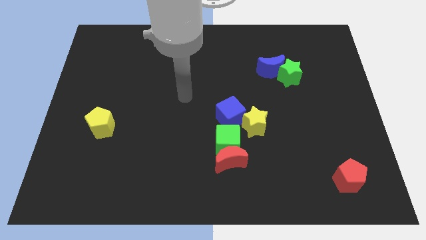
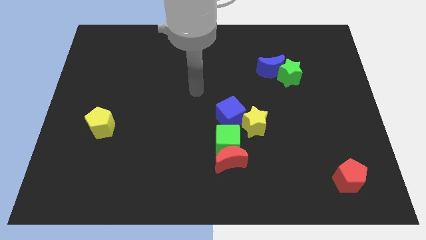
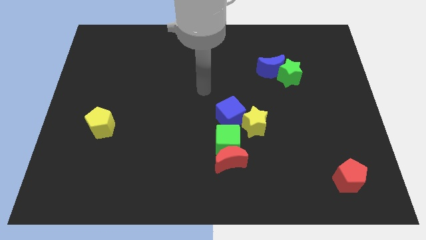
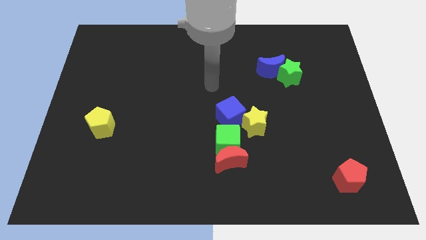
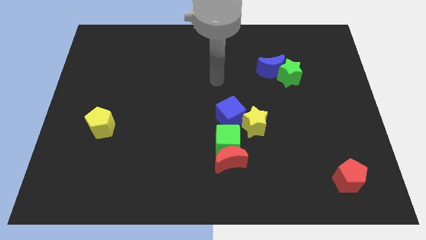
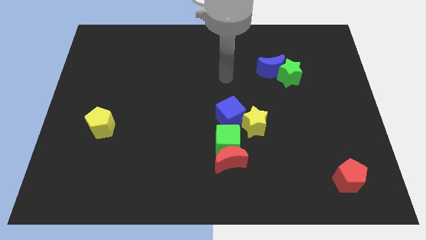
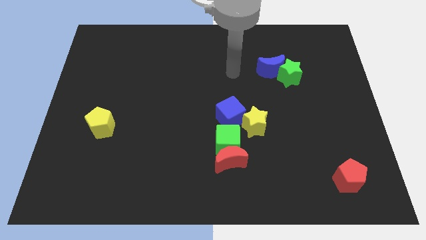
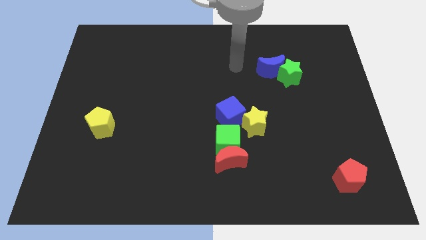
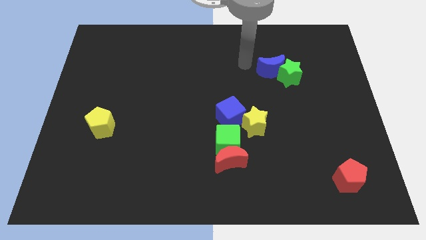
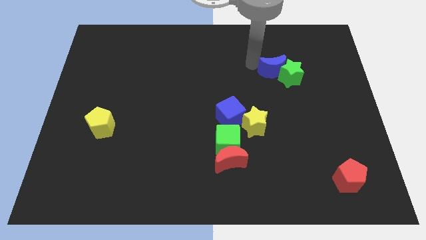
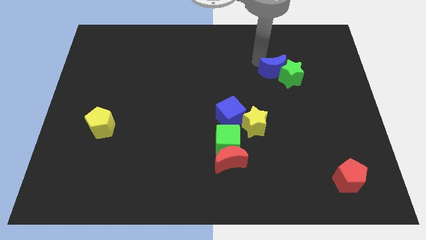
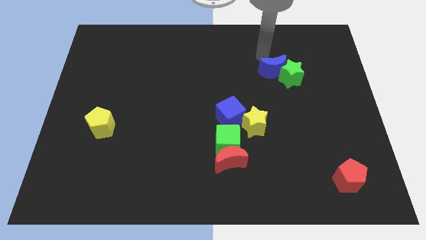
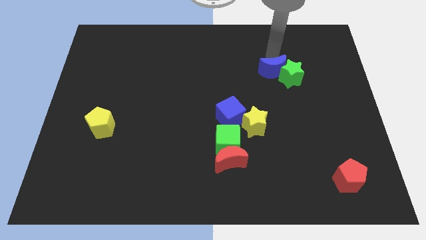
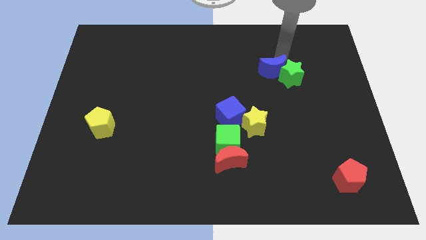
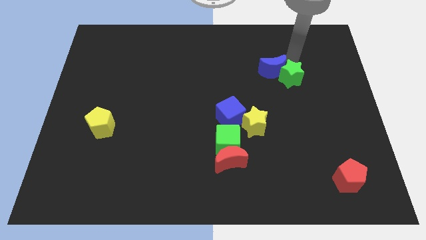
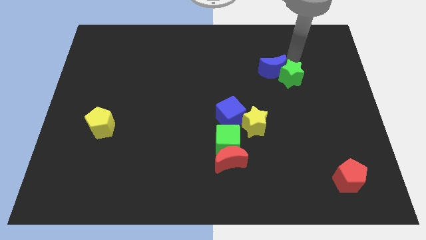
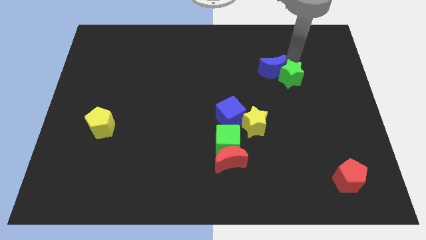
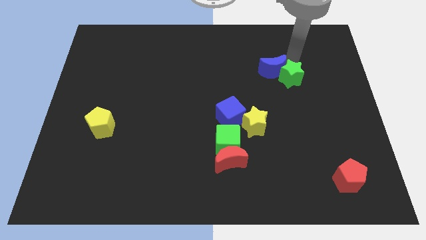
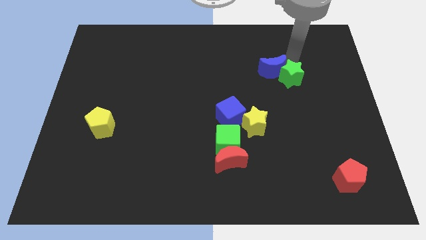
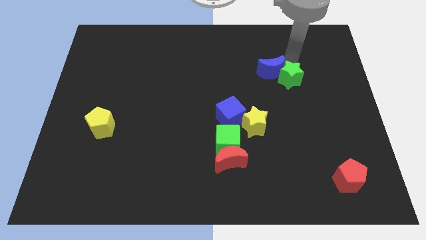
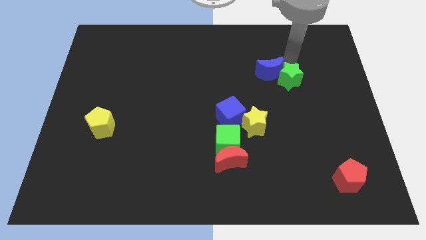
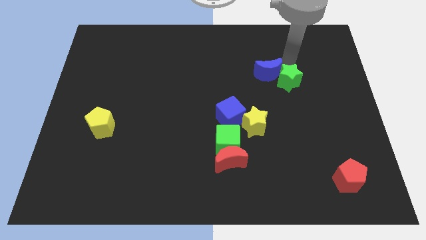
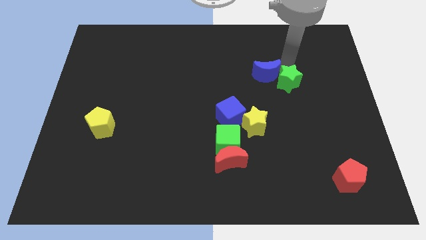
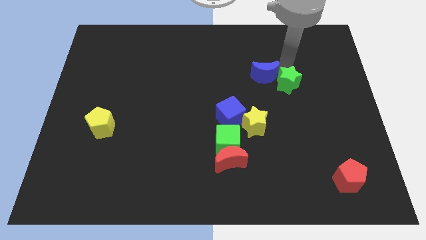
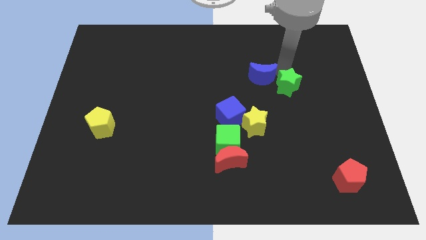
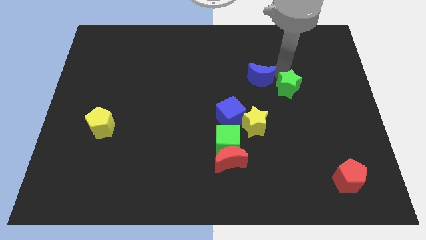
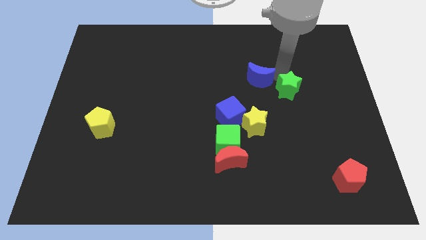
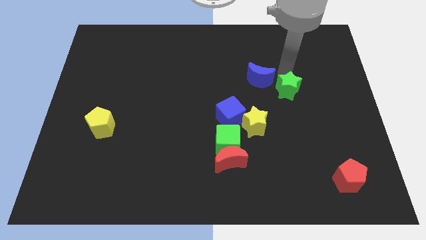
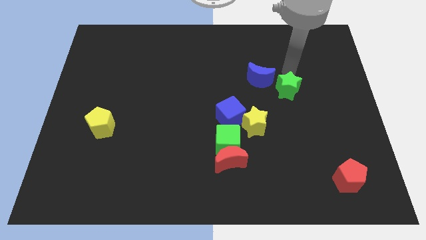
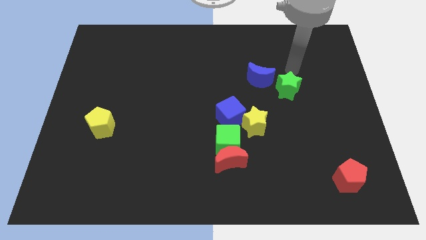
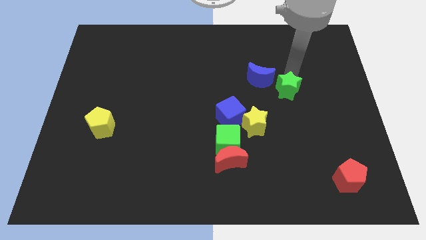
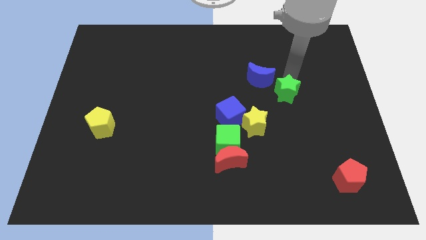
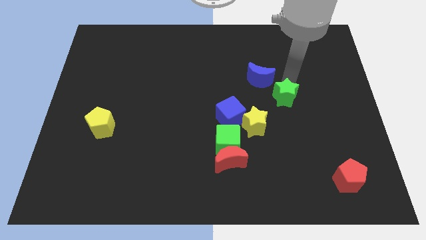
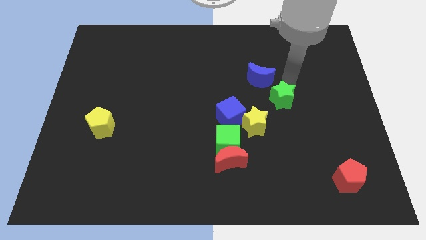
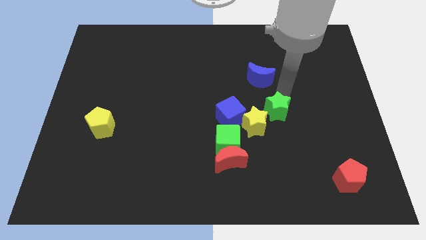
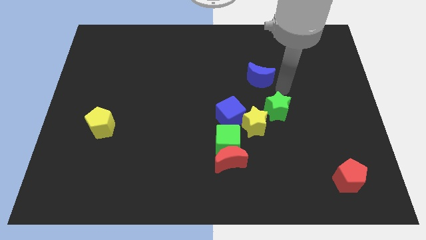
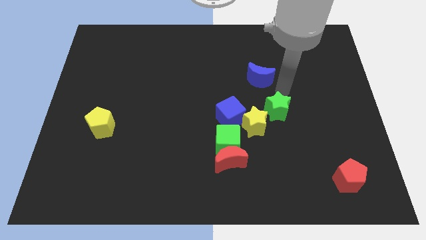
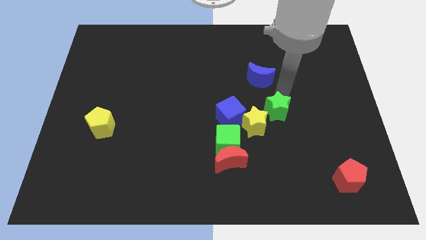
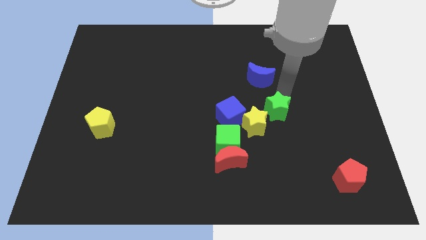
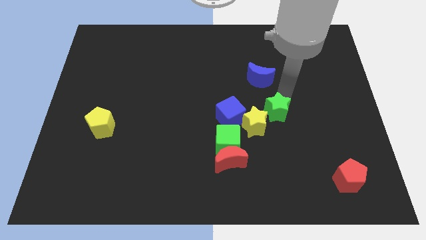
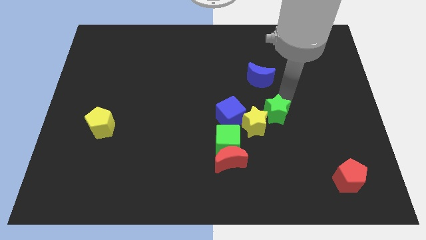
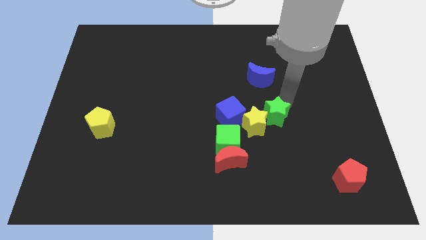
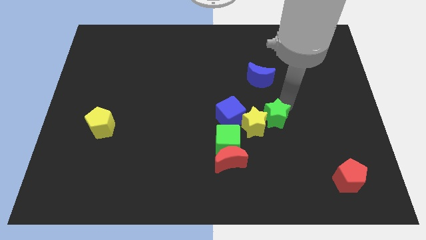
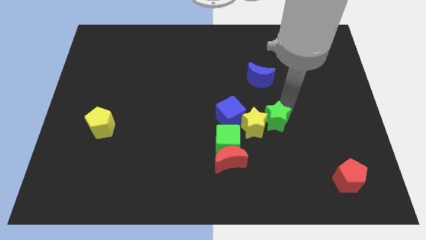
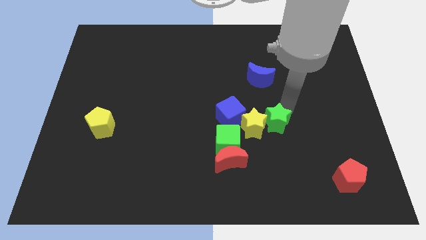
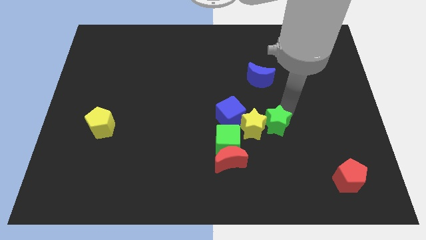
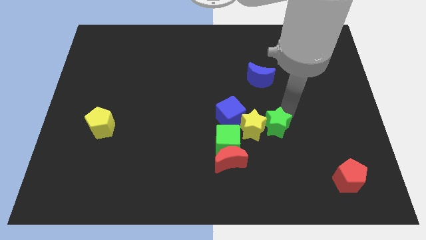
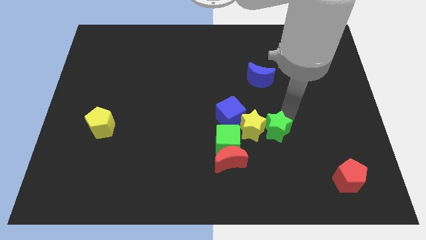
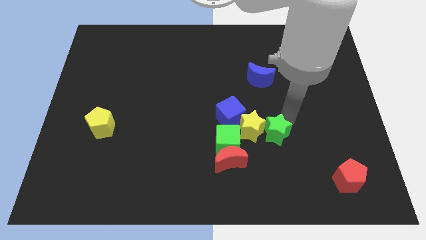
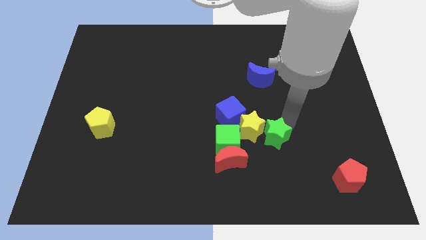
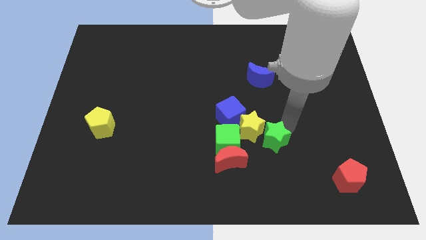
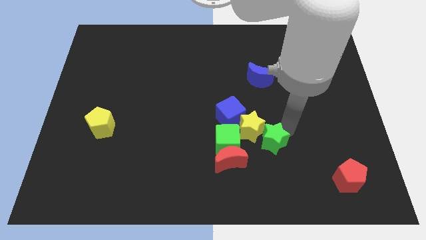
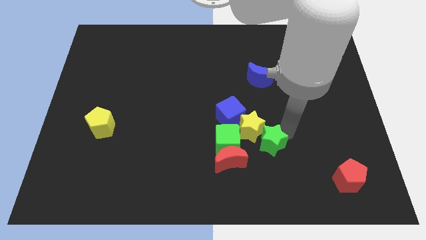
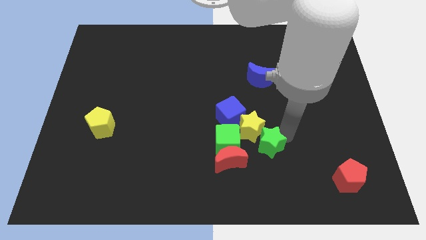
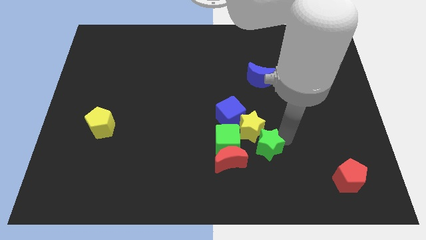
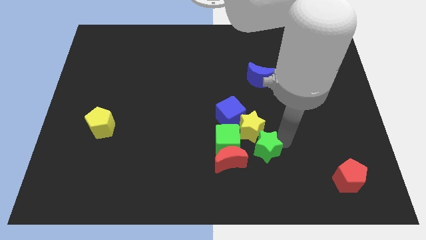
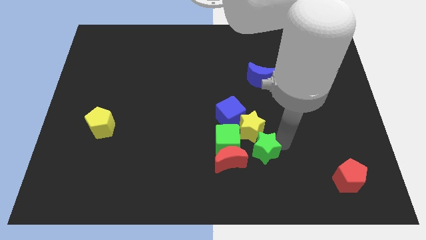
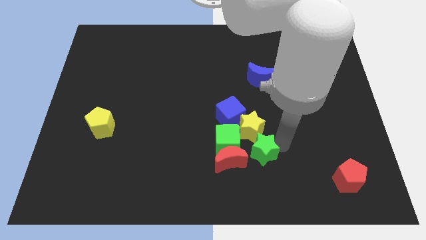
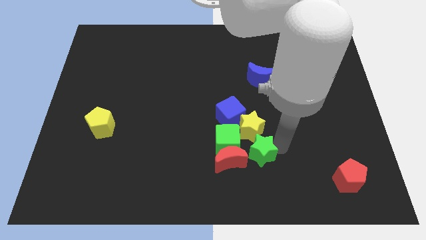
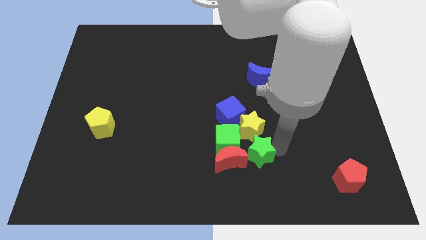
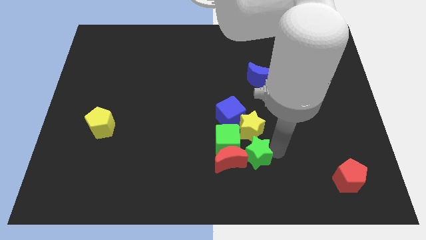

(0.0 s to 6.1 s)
move the green star to the red moon
